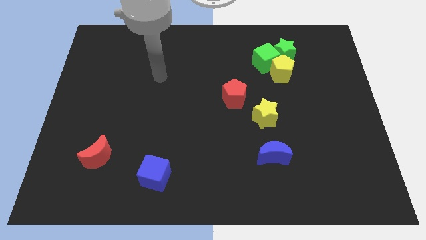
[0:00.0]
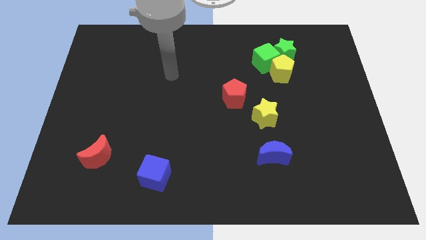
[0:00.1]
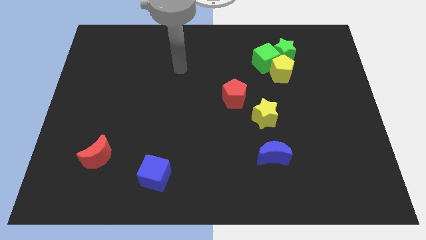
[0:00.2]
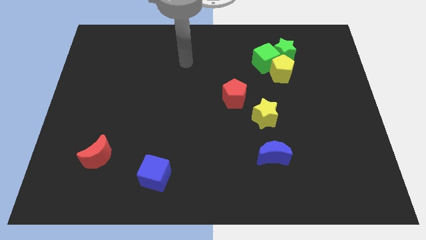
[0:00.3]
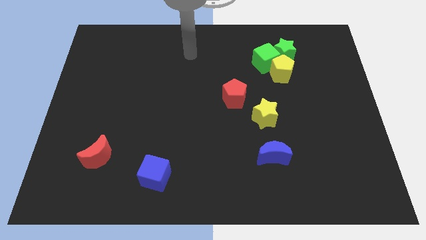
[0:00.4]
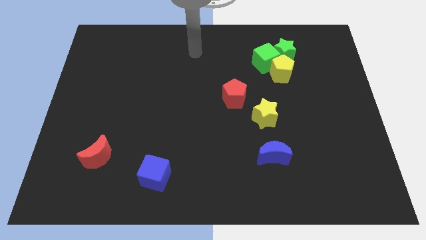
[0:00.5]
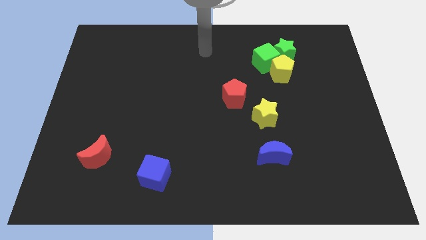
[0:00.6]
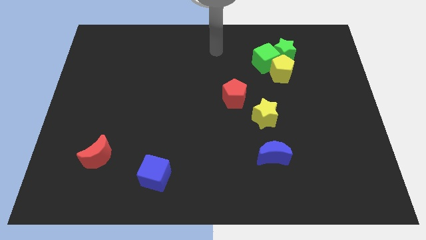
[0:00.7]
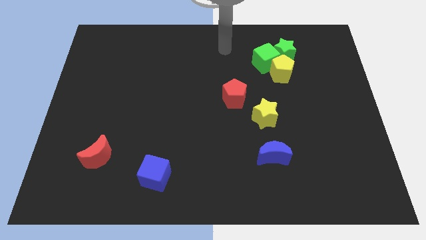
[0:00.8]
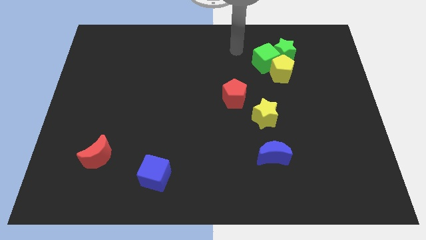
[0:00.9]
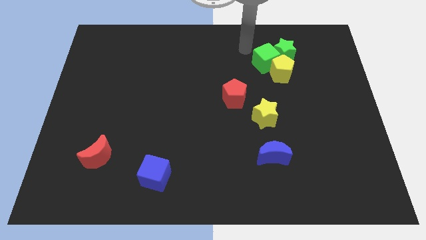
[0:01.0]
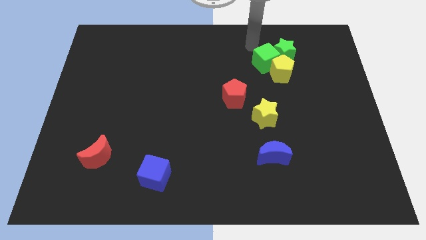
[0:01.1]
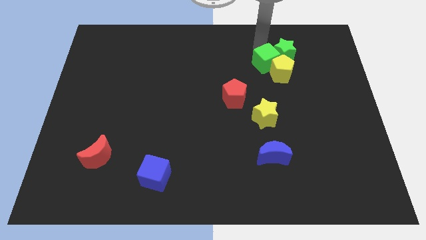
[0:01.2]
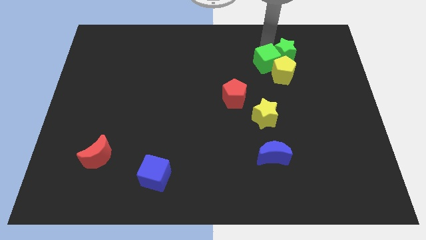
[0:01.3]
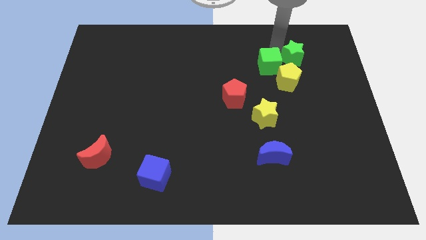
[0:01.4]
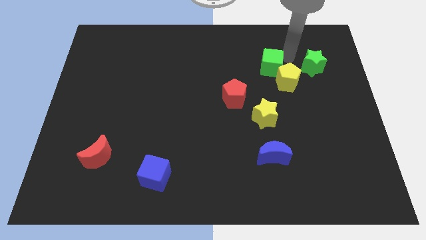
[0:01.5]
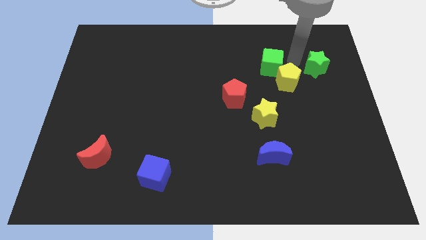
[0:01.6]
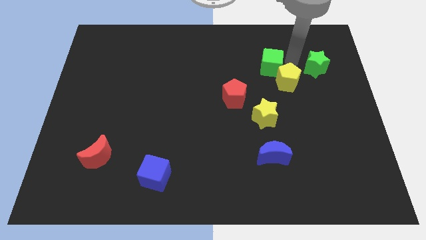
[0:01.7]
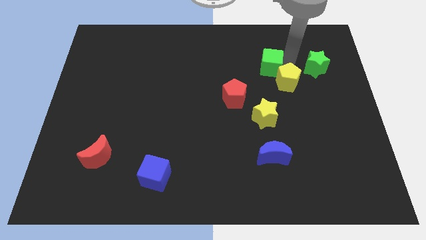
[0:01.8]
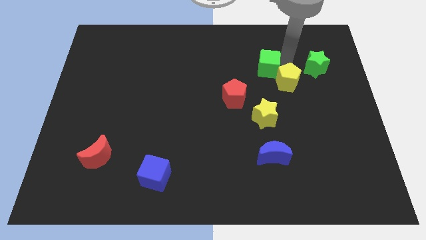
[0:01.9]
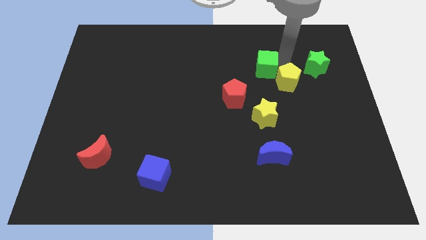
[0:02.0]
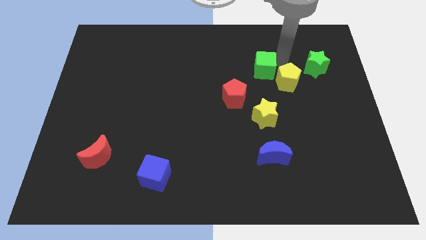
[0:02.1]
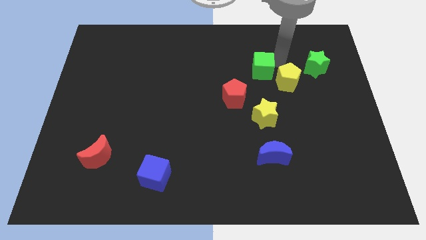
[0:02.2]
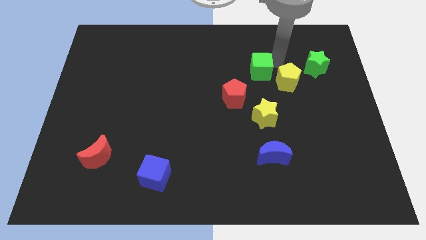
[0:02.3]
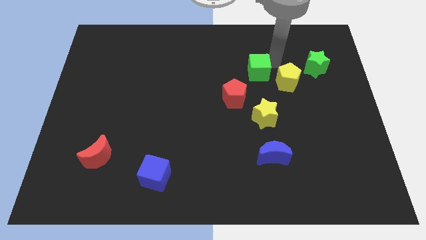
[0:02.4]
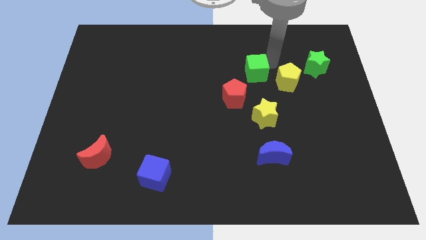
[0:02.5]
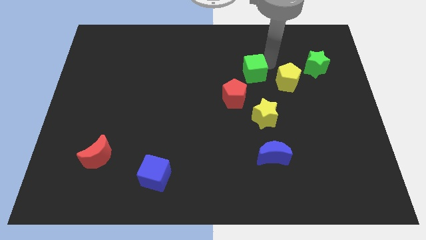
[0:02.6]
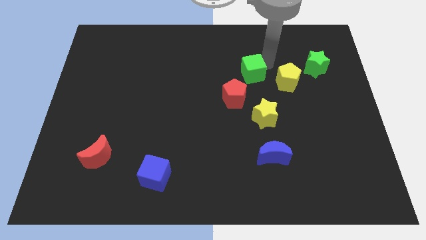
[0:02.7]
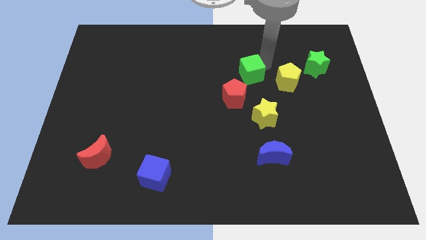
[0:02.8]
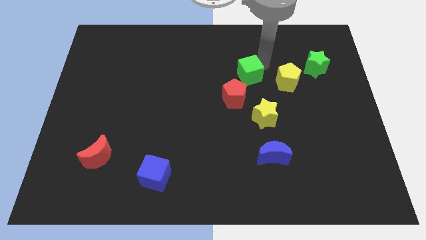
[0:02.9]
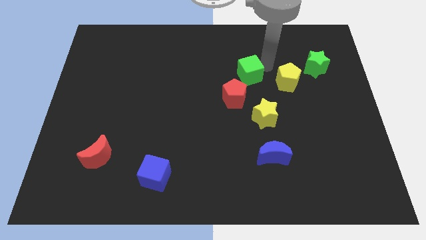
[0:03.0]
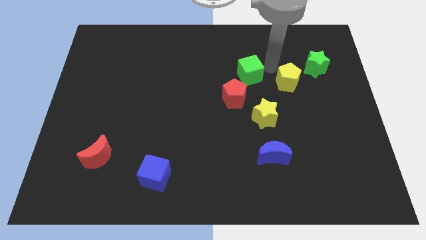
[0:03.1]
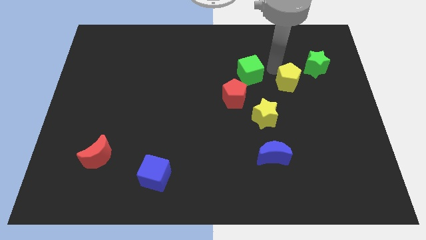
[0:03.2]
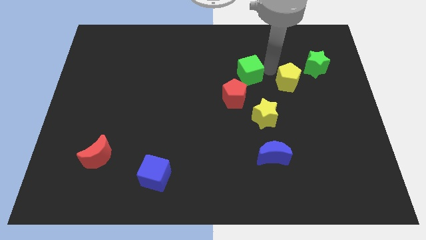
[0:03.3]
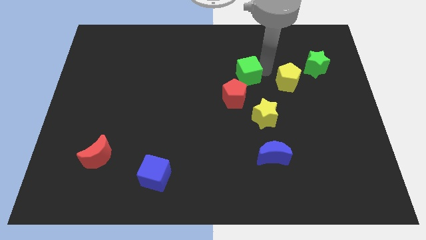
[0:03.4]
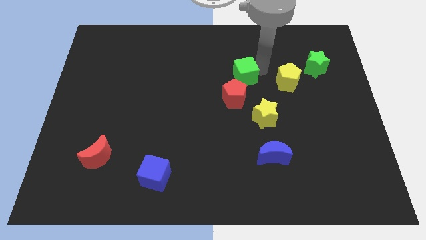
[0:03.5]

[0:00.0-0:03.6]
move the green cube slightly down and then left

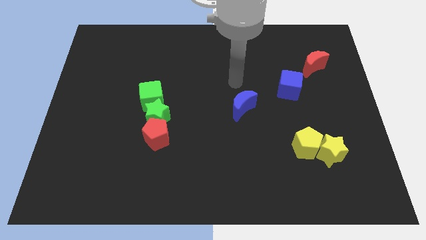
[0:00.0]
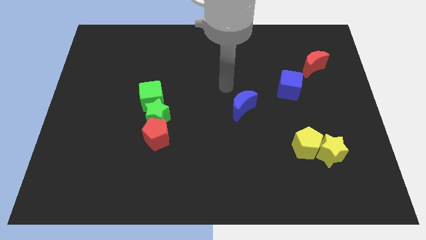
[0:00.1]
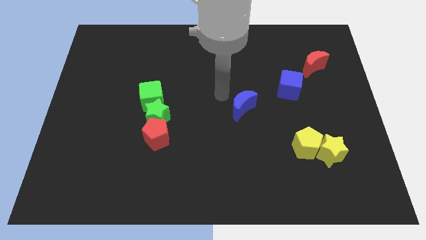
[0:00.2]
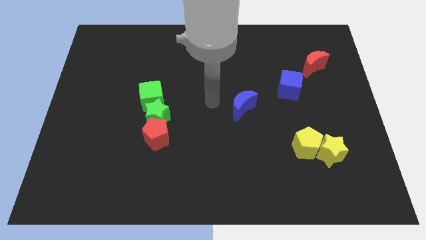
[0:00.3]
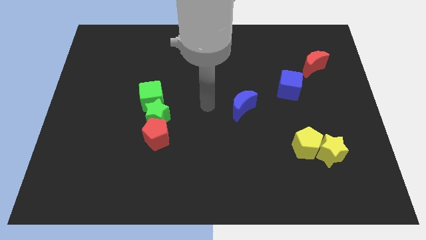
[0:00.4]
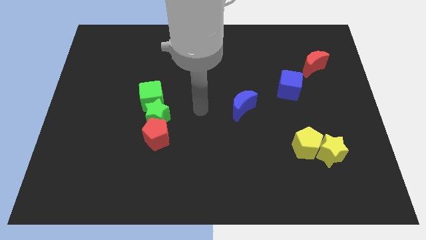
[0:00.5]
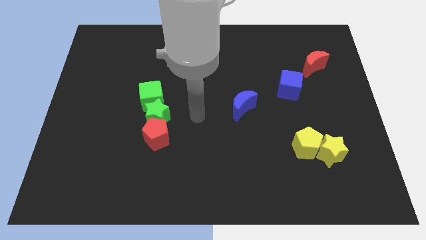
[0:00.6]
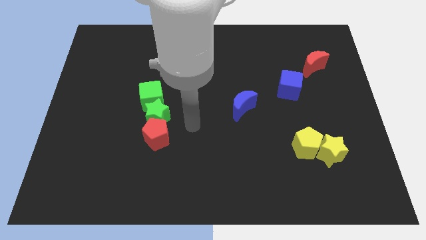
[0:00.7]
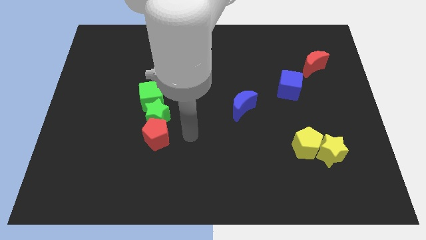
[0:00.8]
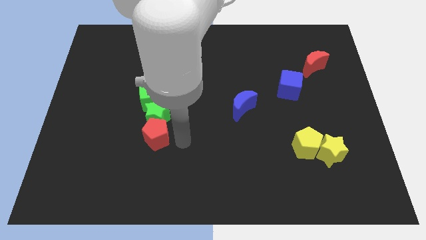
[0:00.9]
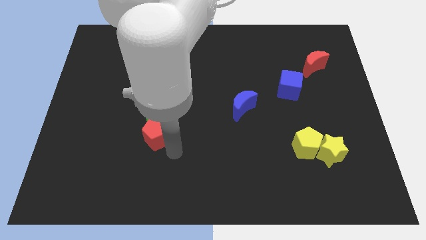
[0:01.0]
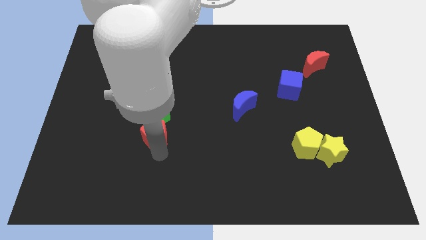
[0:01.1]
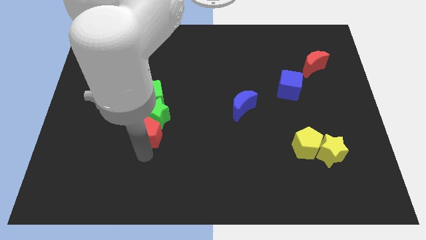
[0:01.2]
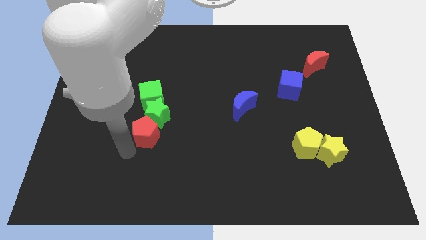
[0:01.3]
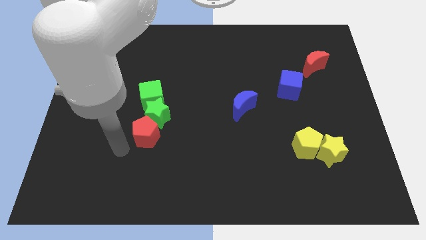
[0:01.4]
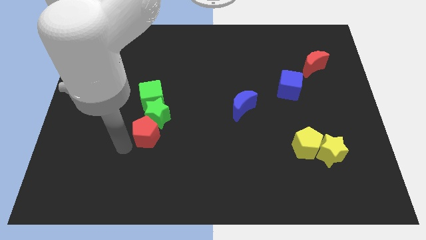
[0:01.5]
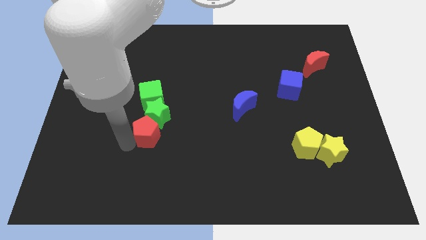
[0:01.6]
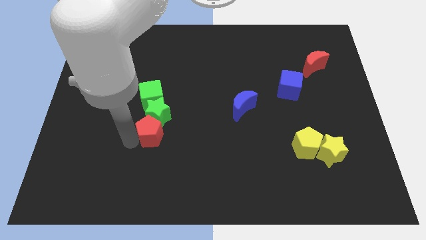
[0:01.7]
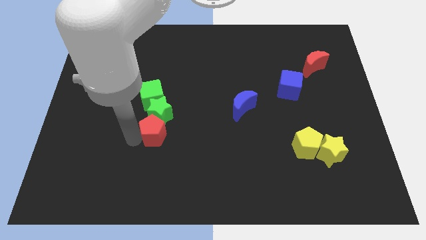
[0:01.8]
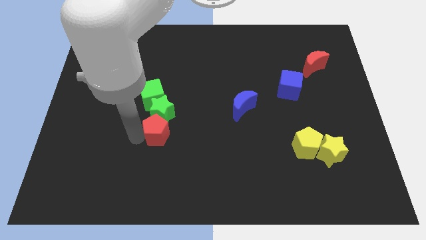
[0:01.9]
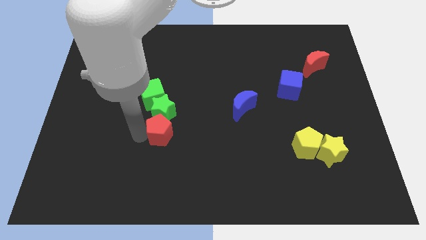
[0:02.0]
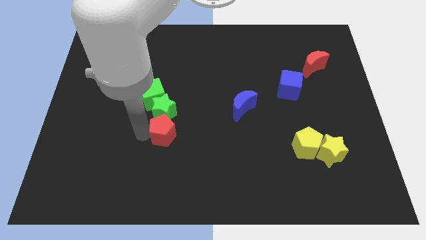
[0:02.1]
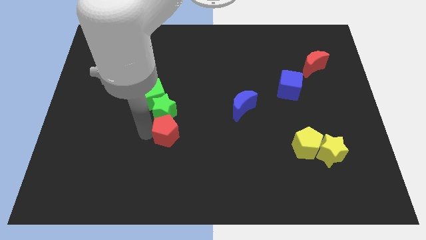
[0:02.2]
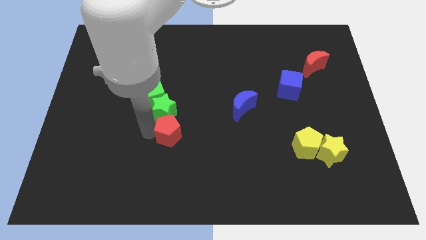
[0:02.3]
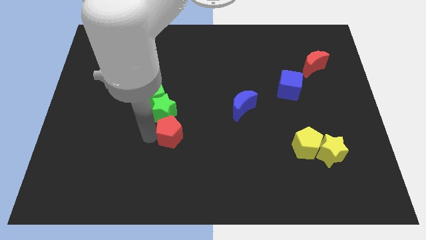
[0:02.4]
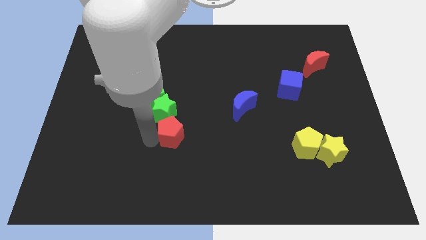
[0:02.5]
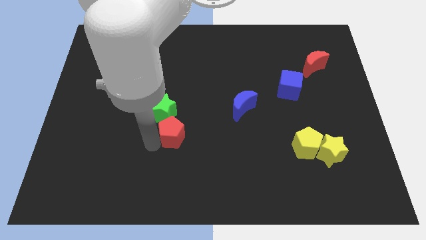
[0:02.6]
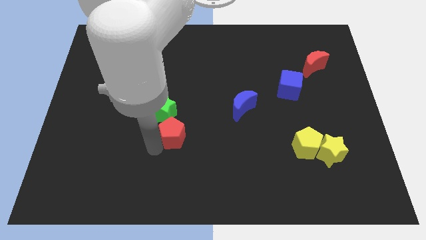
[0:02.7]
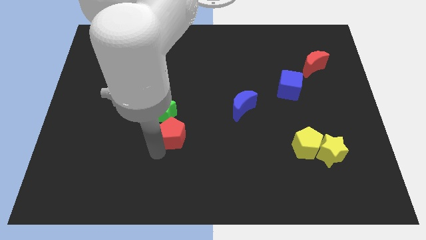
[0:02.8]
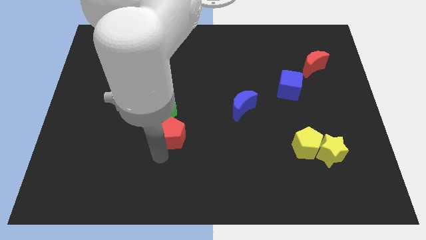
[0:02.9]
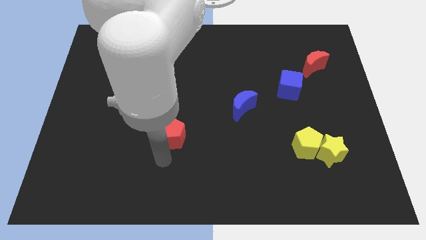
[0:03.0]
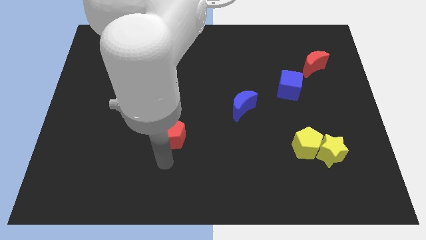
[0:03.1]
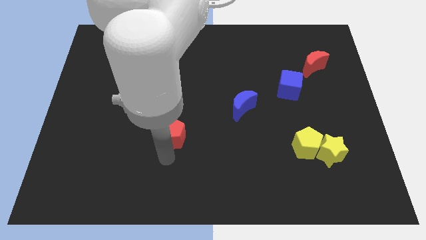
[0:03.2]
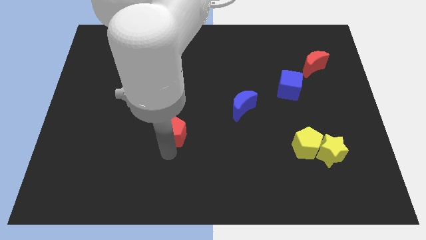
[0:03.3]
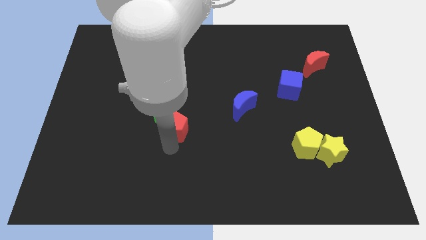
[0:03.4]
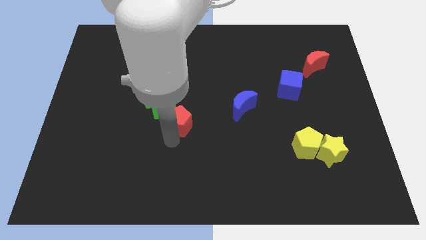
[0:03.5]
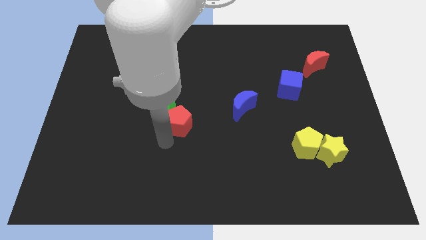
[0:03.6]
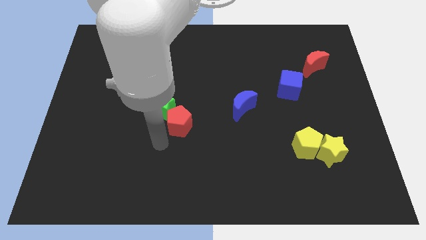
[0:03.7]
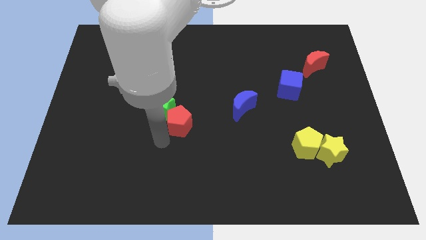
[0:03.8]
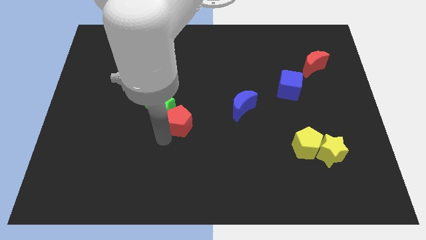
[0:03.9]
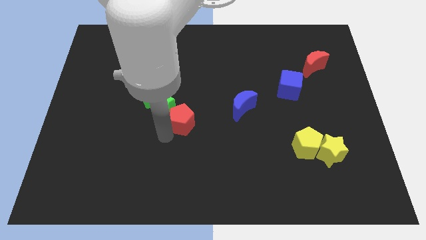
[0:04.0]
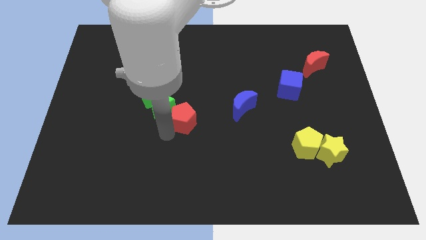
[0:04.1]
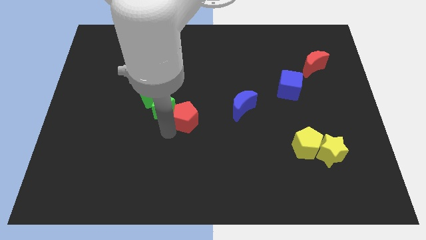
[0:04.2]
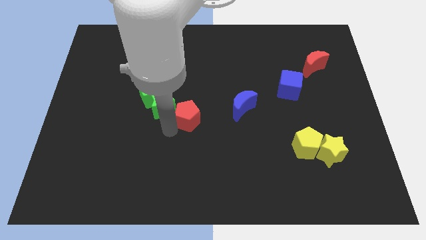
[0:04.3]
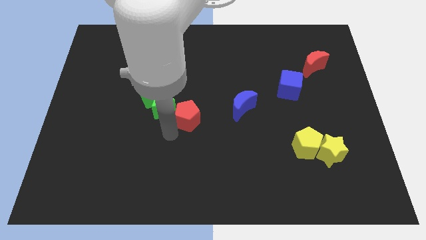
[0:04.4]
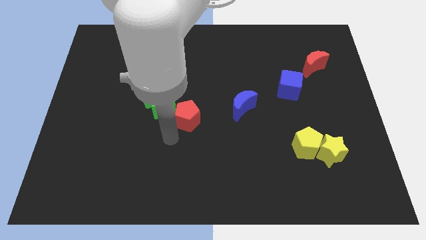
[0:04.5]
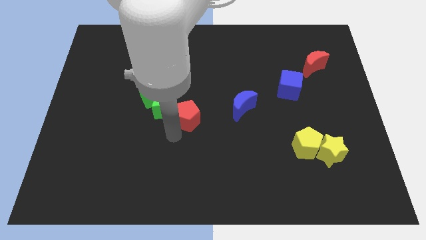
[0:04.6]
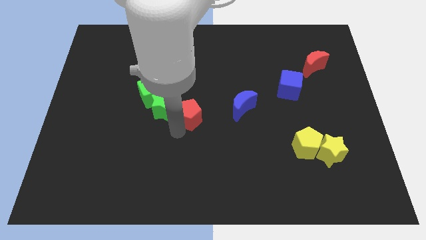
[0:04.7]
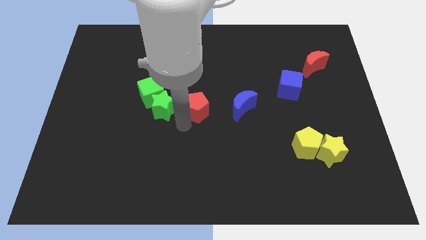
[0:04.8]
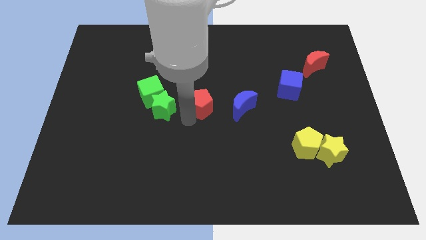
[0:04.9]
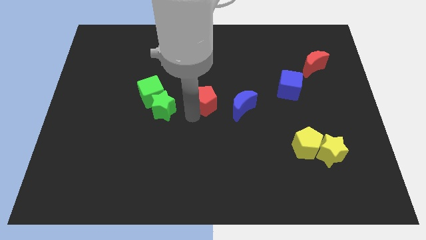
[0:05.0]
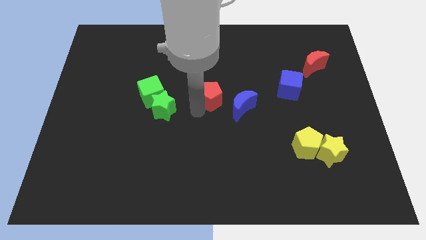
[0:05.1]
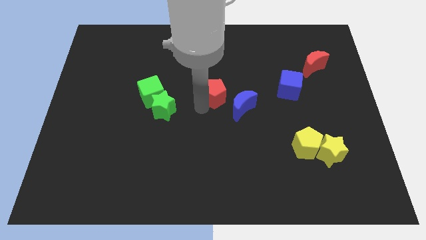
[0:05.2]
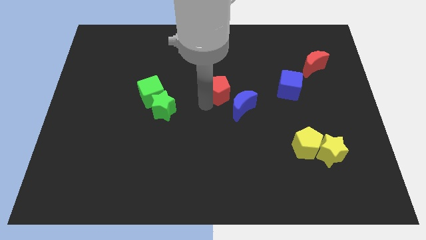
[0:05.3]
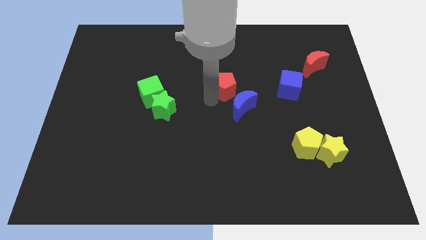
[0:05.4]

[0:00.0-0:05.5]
slide the red pentagon diagonally up and to the right
